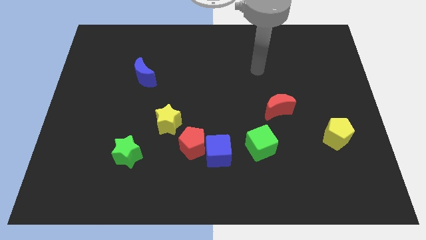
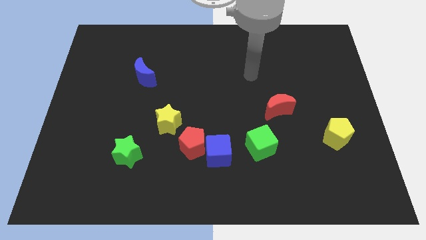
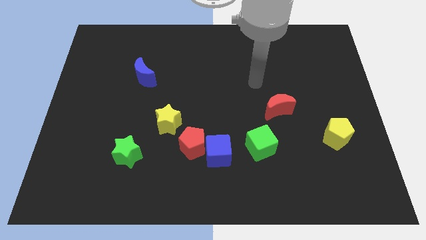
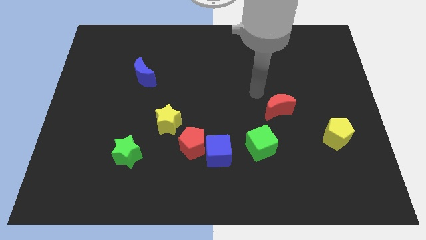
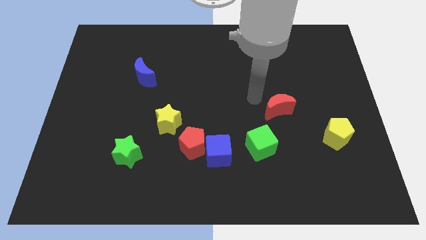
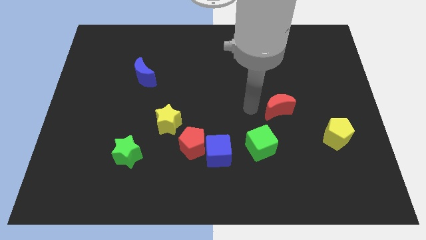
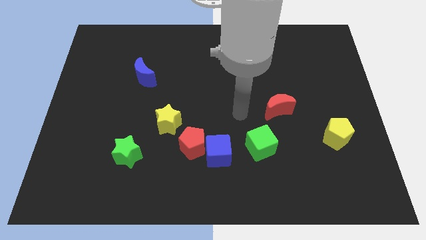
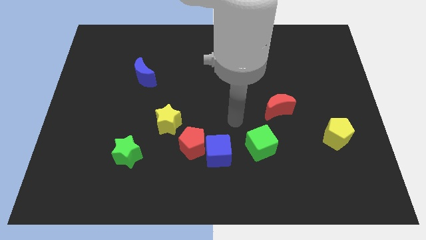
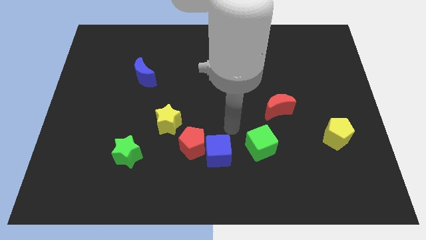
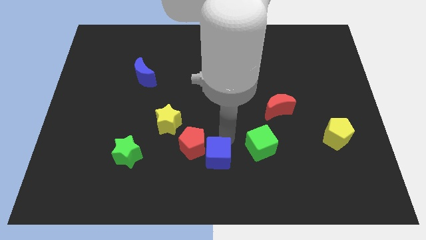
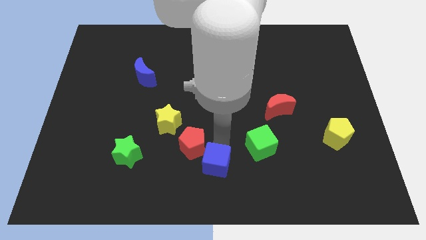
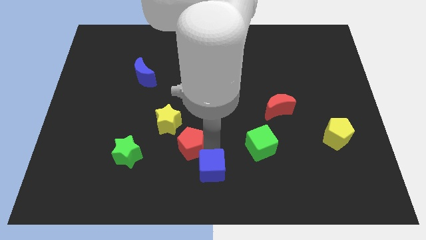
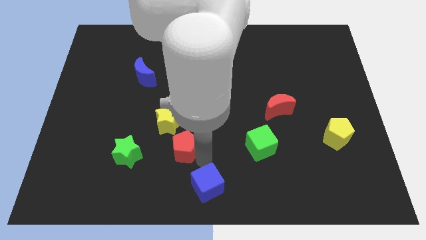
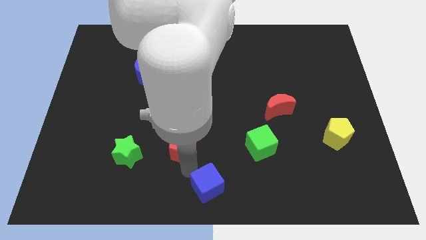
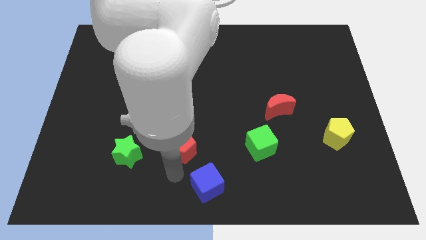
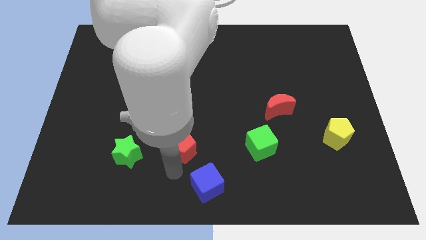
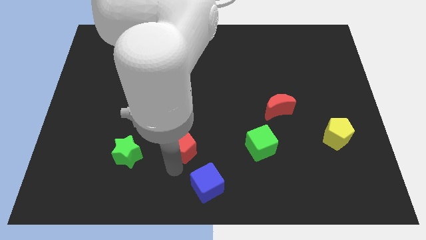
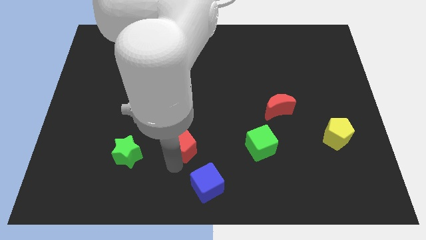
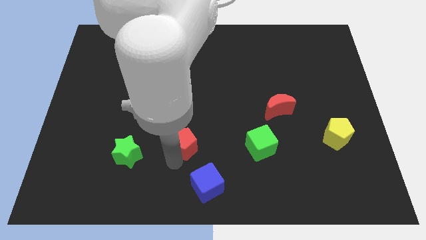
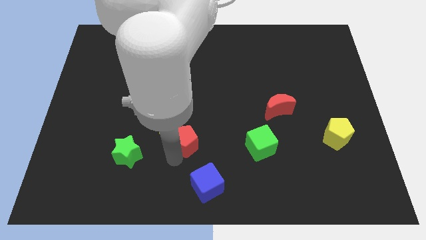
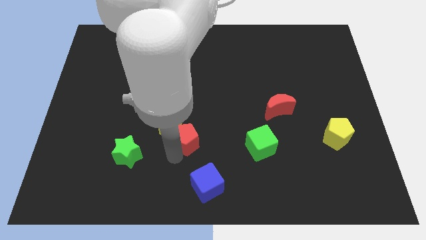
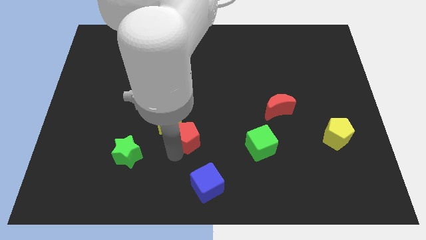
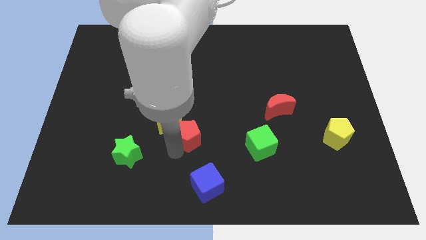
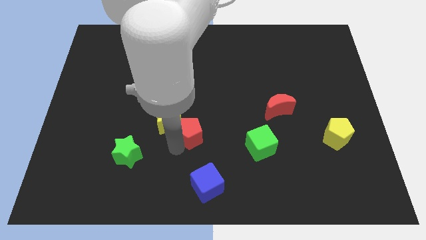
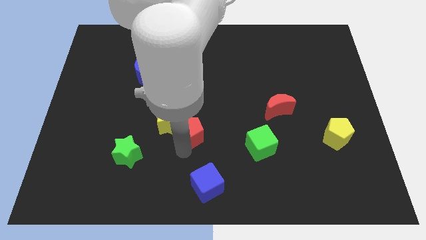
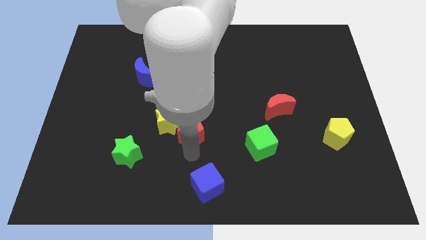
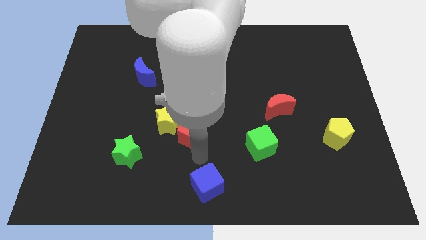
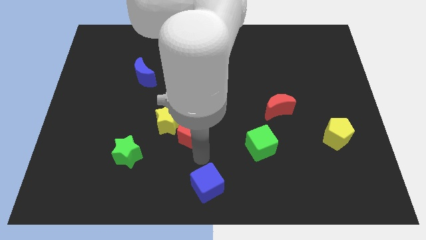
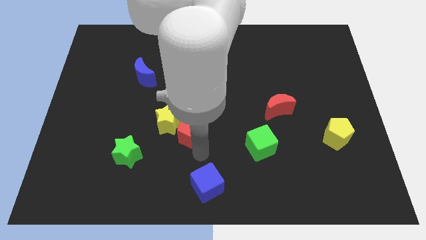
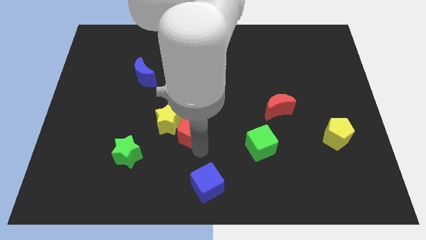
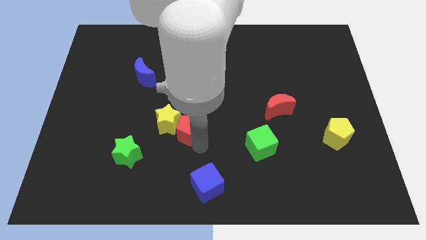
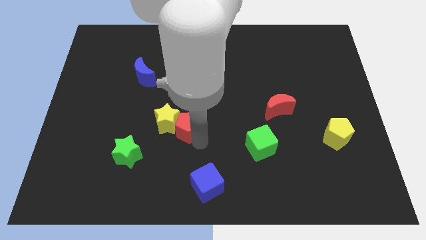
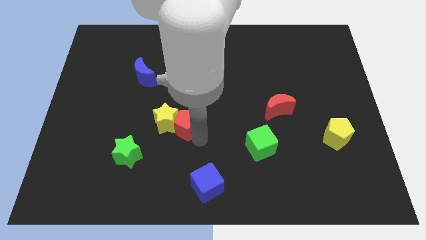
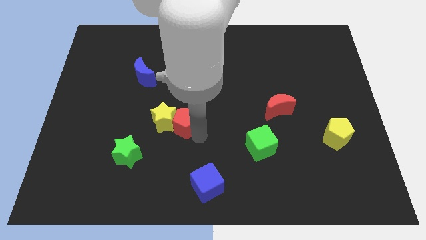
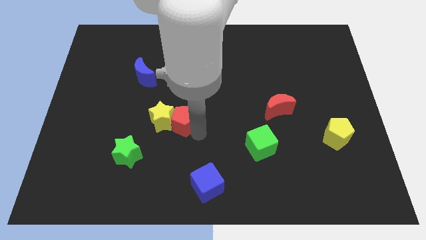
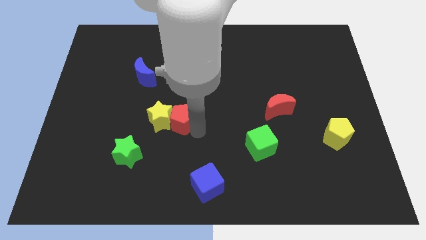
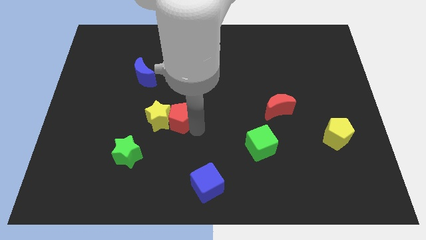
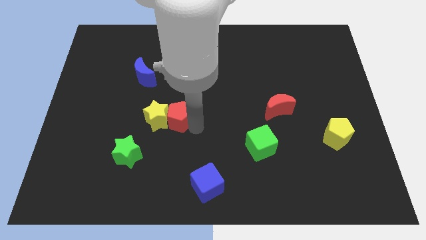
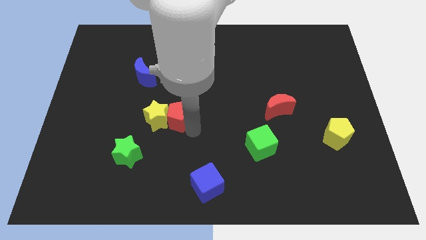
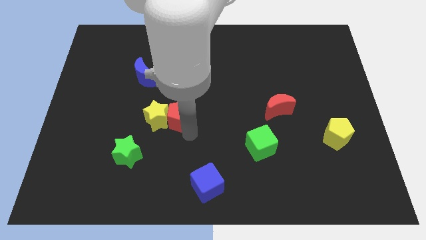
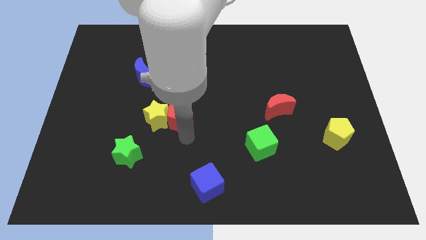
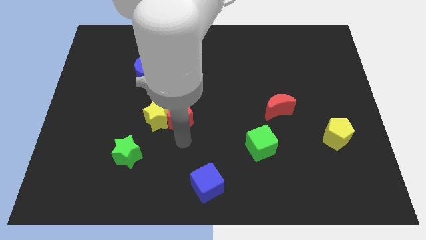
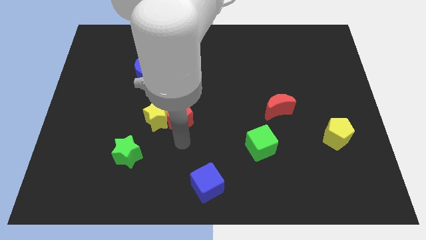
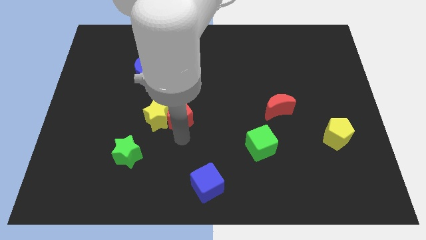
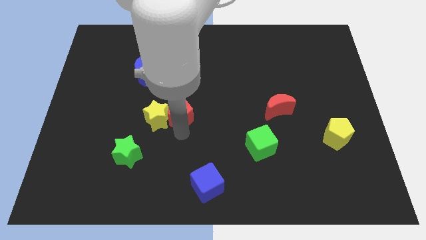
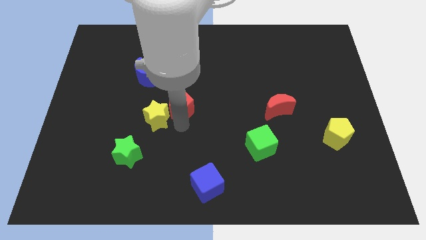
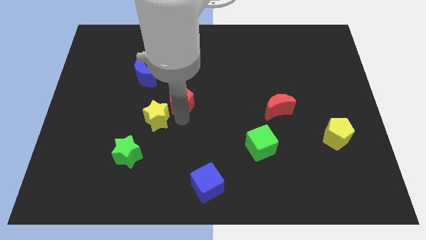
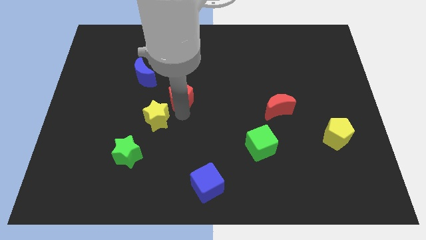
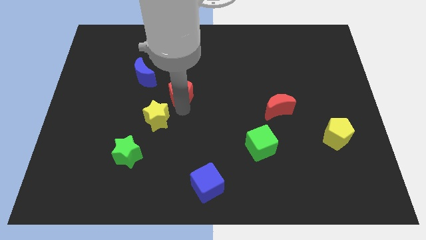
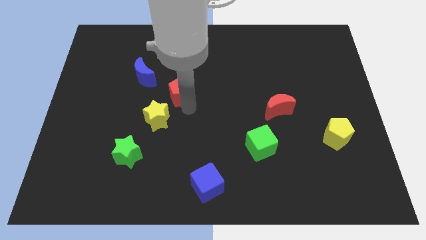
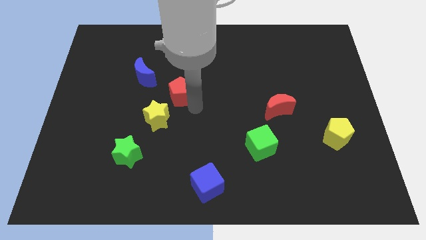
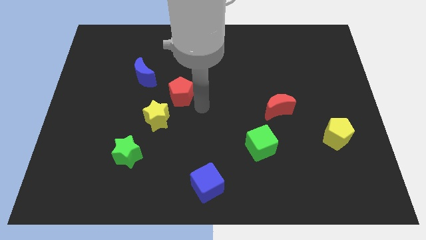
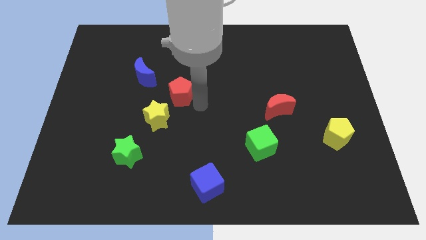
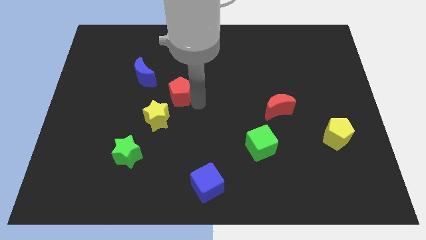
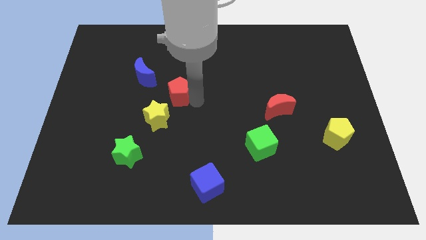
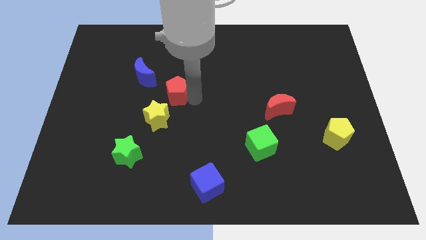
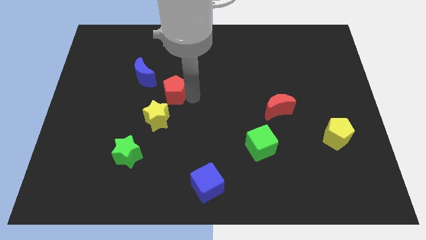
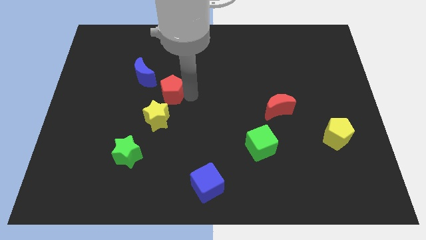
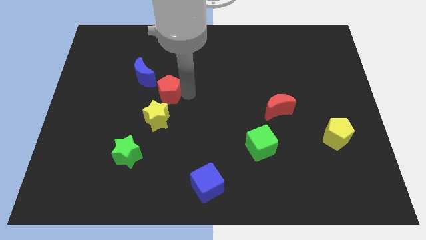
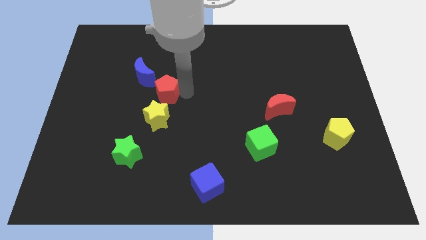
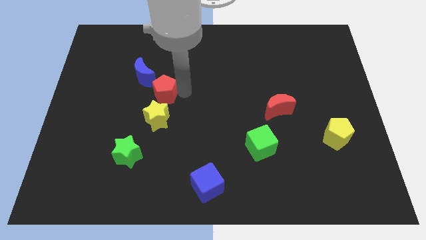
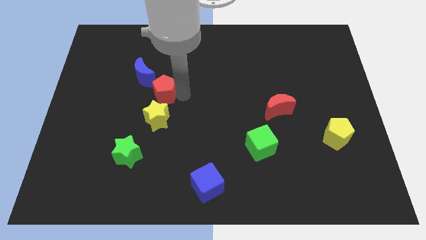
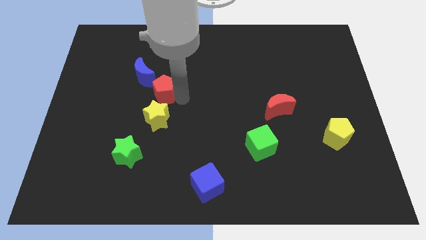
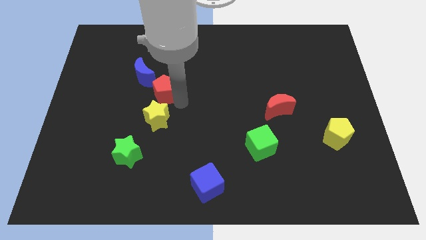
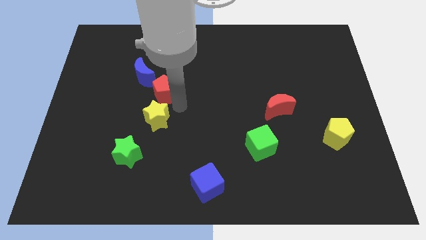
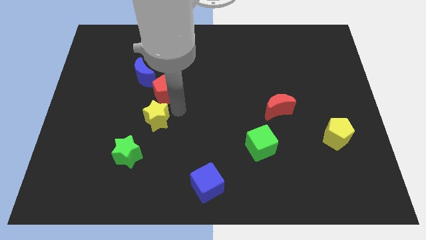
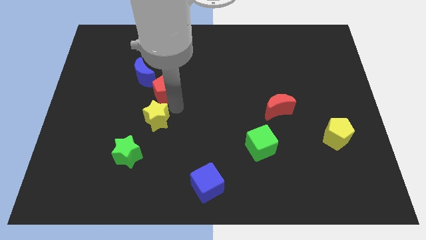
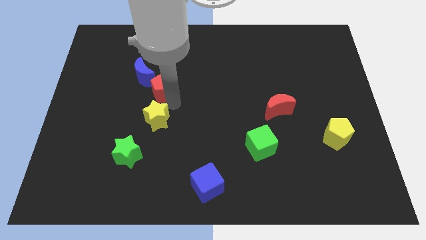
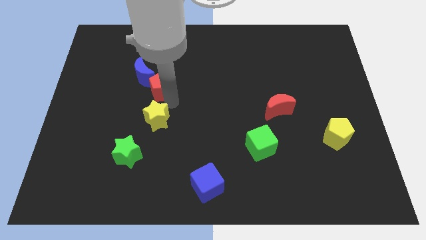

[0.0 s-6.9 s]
slide the red pentagon next to the blue moon
